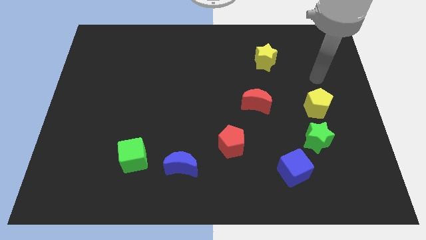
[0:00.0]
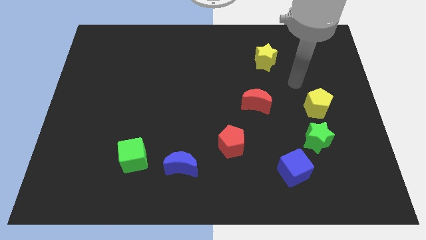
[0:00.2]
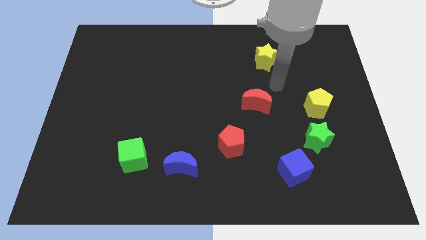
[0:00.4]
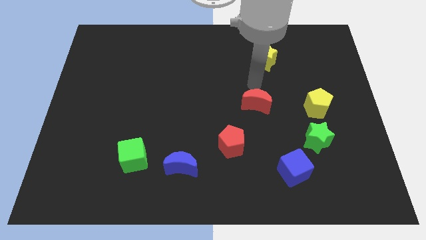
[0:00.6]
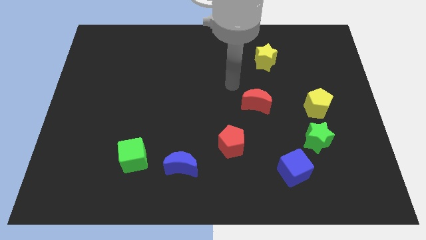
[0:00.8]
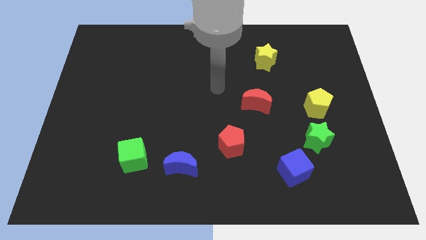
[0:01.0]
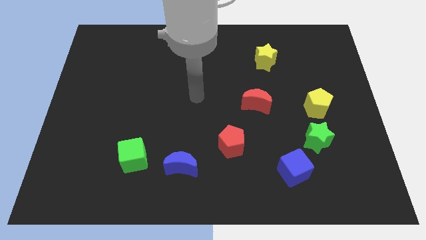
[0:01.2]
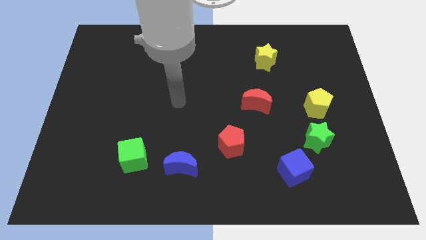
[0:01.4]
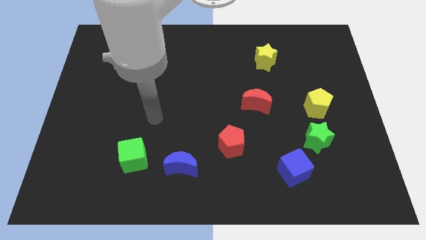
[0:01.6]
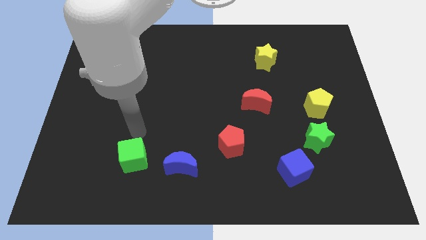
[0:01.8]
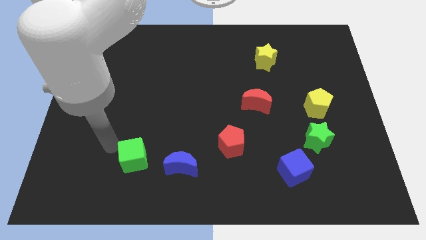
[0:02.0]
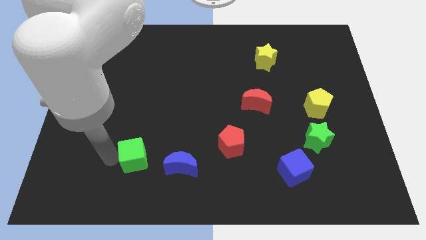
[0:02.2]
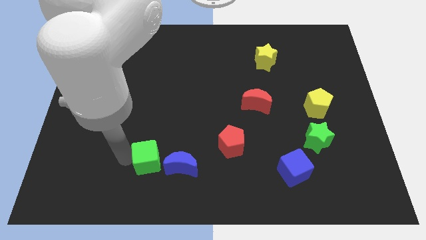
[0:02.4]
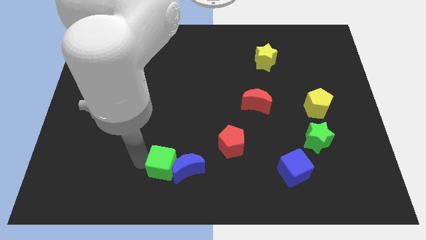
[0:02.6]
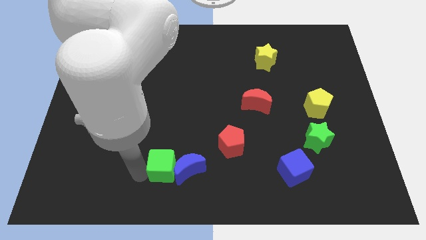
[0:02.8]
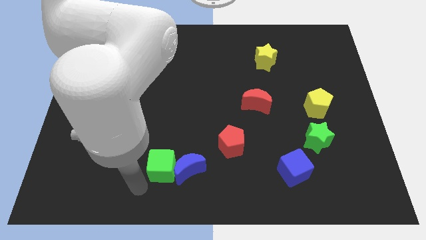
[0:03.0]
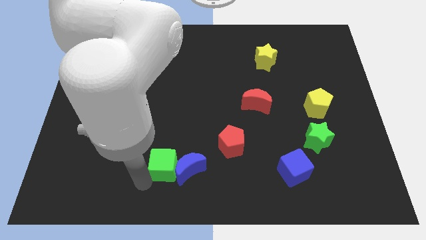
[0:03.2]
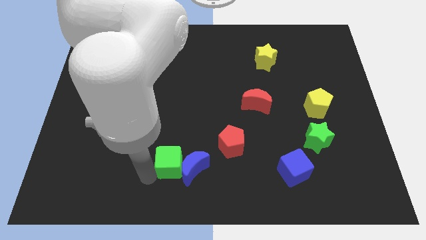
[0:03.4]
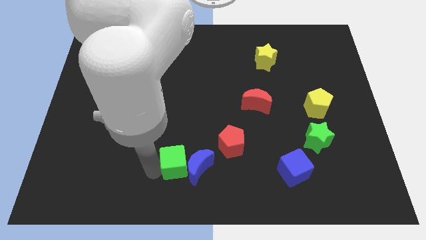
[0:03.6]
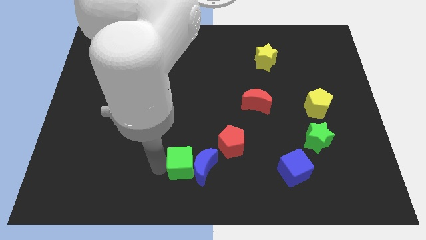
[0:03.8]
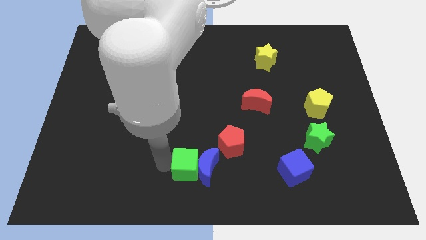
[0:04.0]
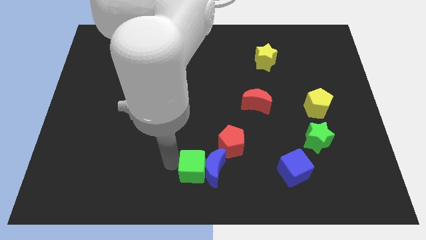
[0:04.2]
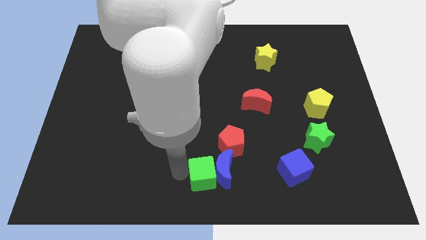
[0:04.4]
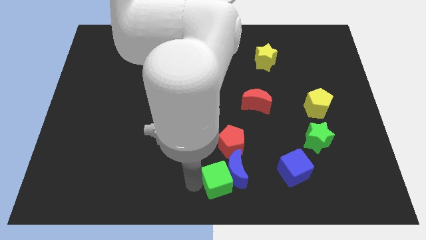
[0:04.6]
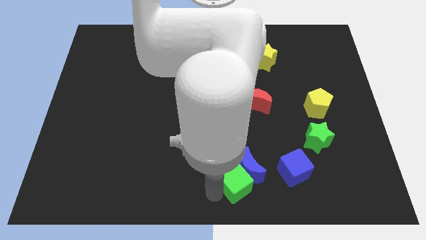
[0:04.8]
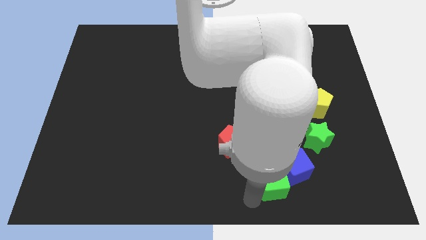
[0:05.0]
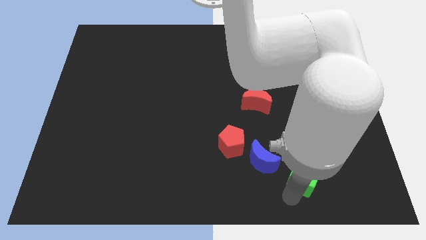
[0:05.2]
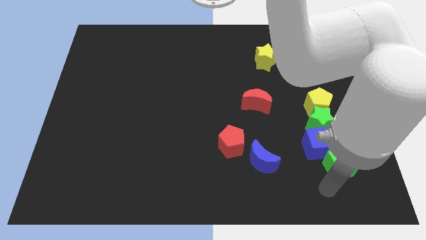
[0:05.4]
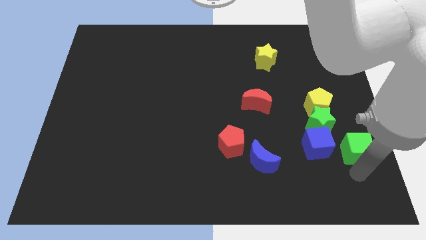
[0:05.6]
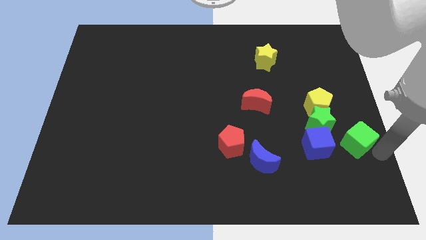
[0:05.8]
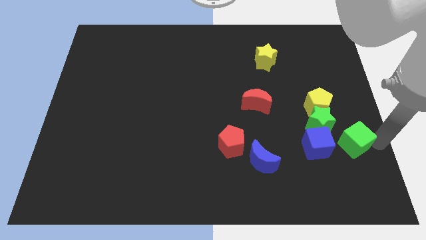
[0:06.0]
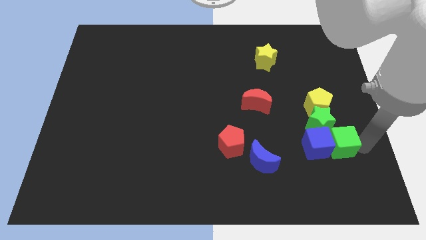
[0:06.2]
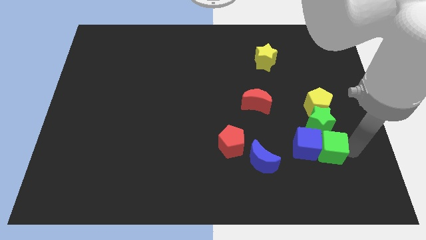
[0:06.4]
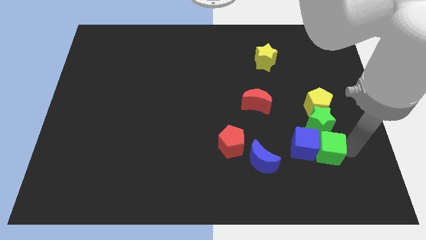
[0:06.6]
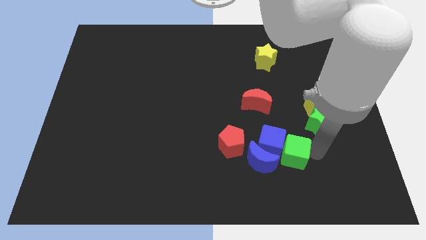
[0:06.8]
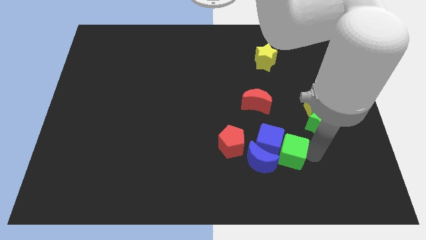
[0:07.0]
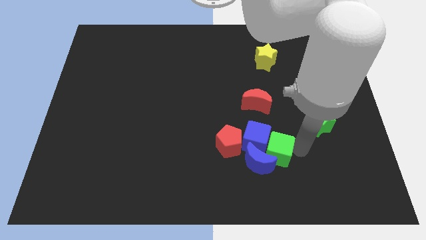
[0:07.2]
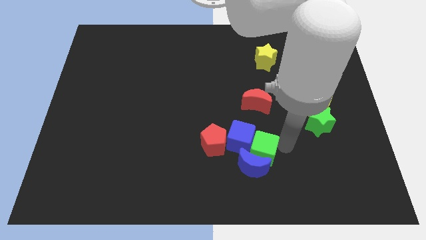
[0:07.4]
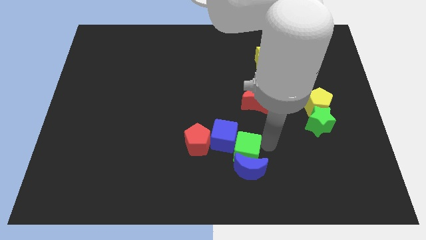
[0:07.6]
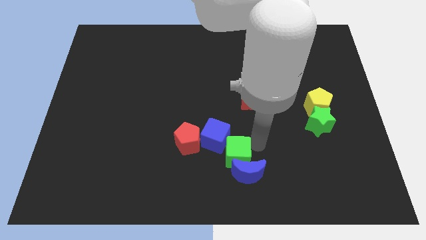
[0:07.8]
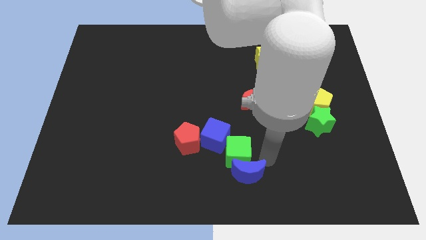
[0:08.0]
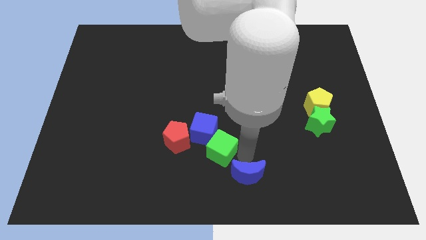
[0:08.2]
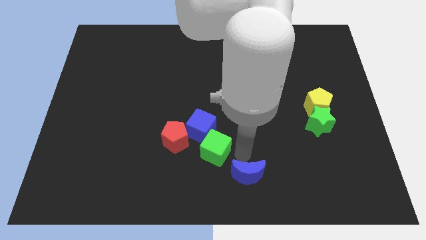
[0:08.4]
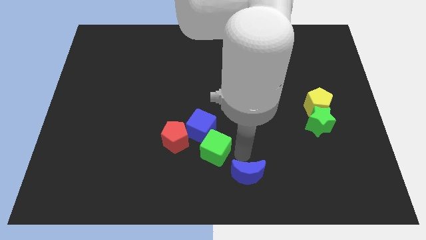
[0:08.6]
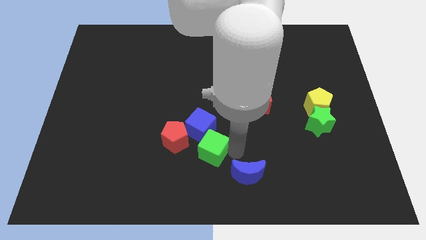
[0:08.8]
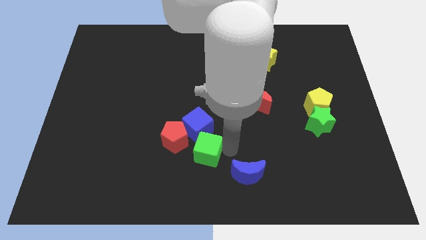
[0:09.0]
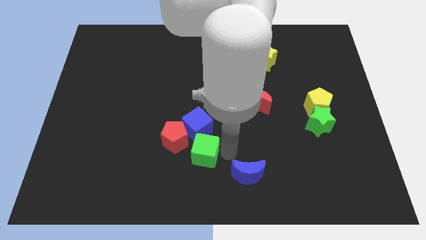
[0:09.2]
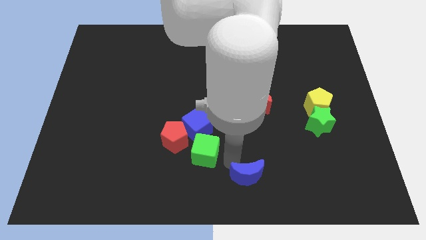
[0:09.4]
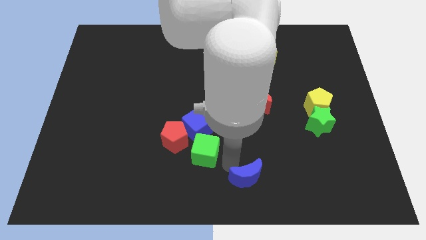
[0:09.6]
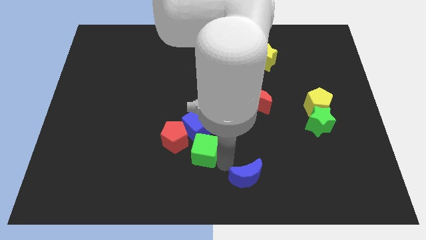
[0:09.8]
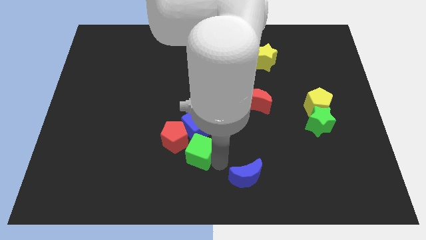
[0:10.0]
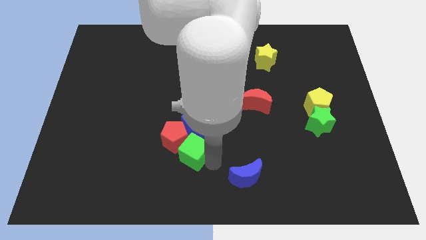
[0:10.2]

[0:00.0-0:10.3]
move the green cube next to the red pentagon

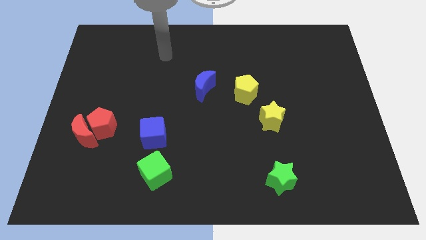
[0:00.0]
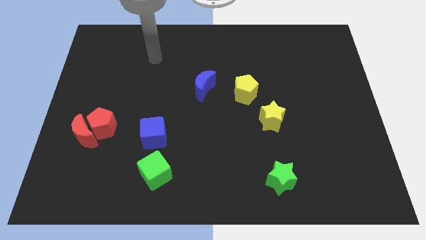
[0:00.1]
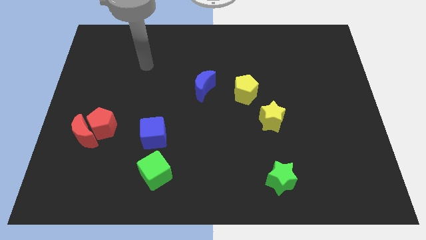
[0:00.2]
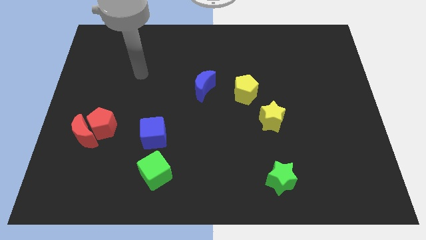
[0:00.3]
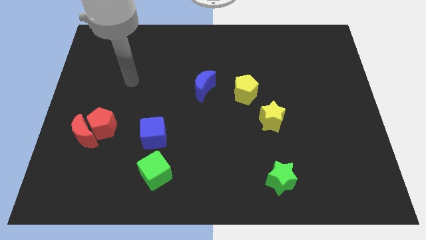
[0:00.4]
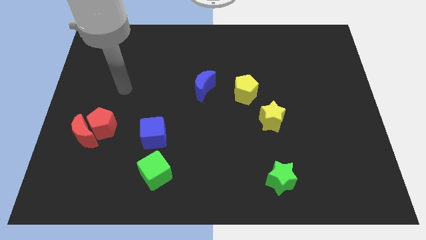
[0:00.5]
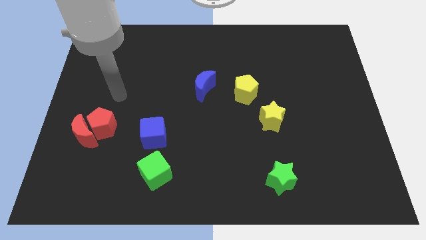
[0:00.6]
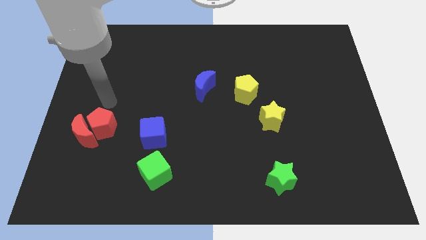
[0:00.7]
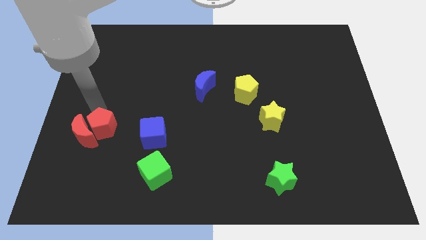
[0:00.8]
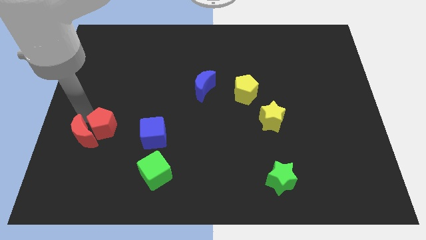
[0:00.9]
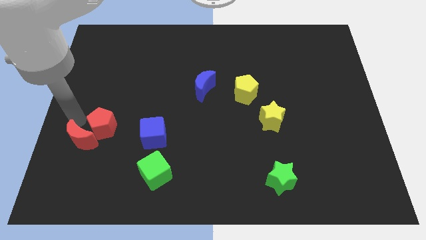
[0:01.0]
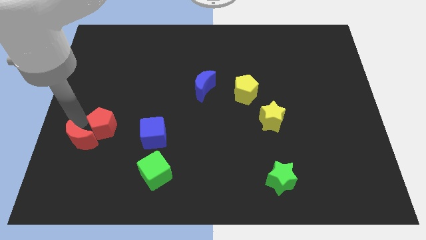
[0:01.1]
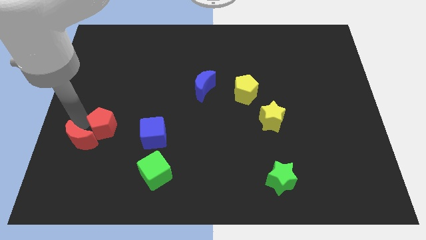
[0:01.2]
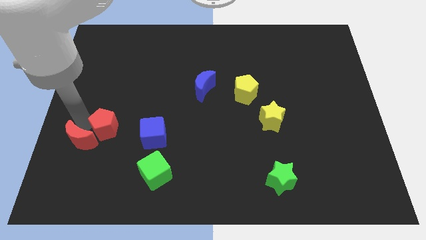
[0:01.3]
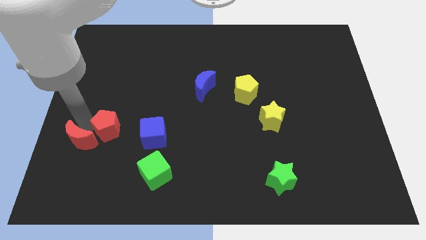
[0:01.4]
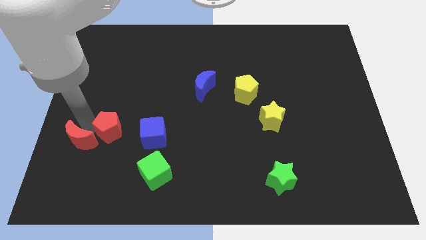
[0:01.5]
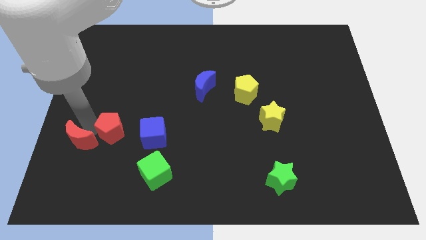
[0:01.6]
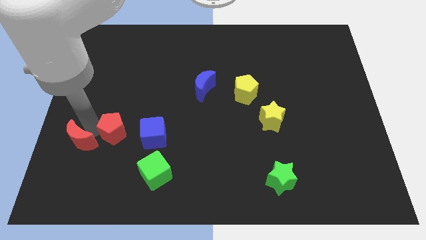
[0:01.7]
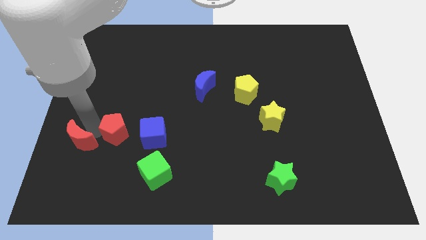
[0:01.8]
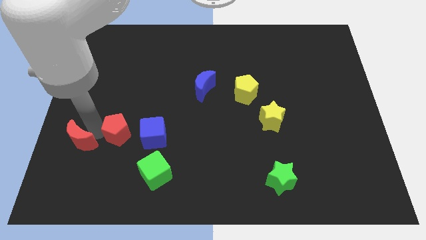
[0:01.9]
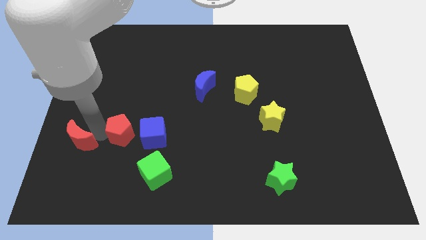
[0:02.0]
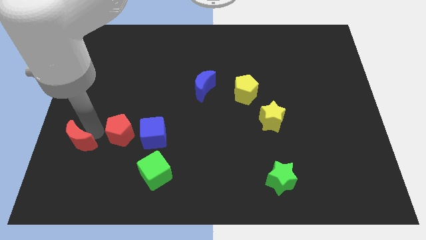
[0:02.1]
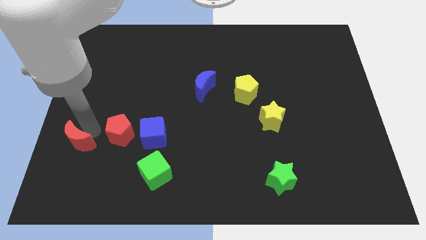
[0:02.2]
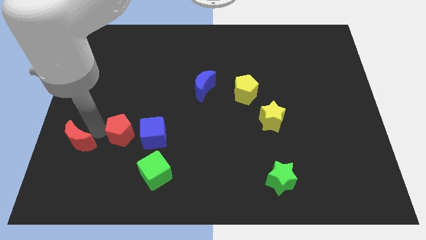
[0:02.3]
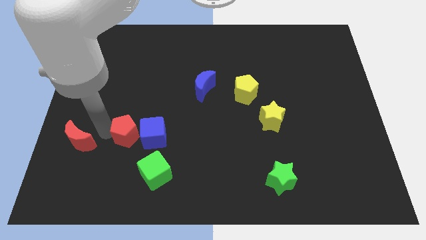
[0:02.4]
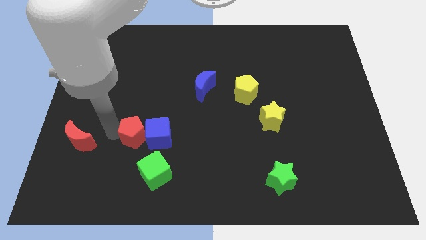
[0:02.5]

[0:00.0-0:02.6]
put the red pentagon to the blue cube
